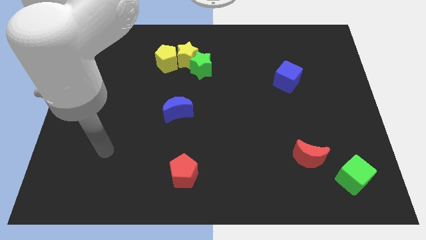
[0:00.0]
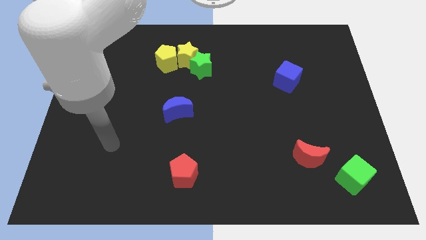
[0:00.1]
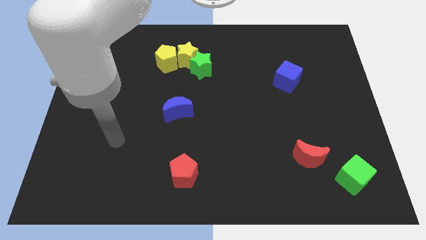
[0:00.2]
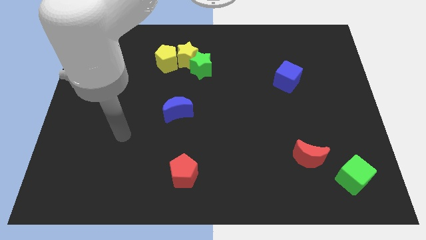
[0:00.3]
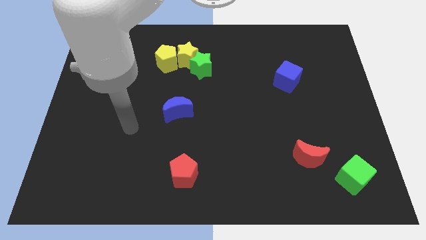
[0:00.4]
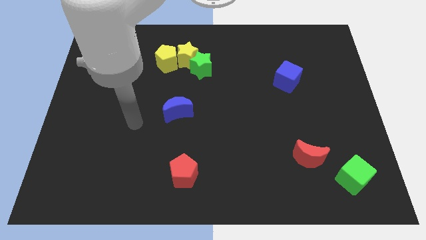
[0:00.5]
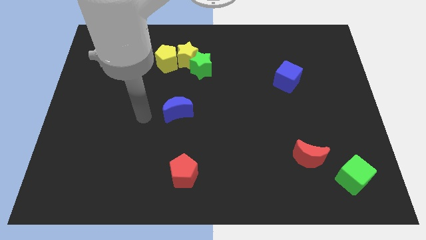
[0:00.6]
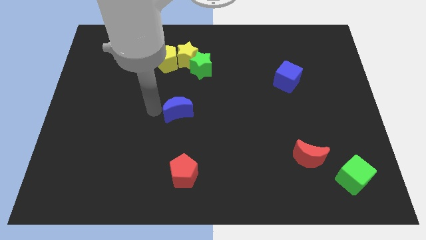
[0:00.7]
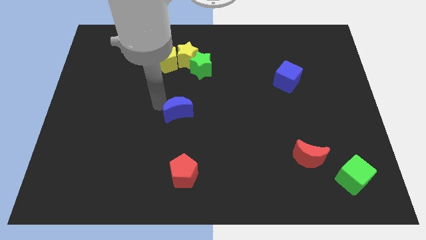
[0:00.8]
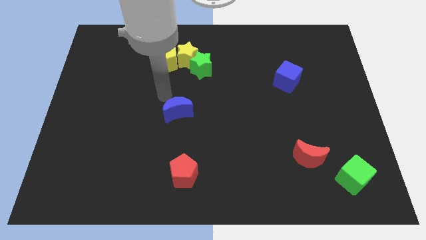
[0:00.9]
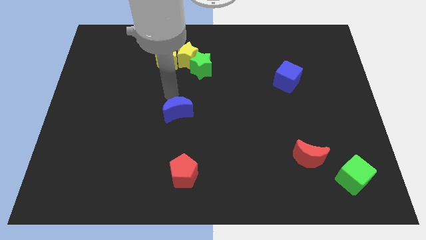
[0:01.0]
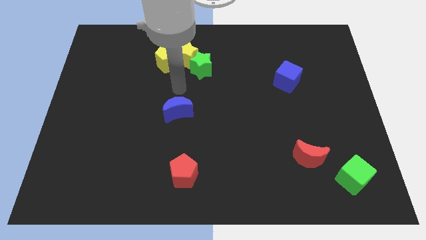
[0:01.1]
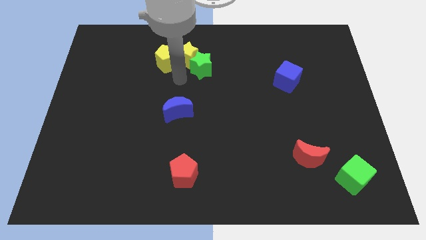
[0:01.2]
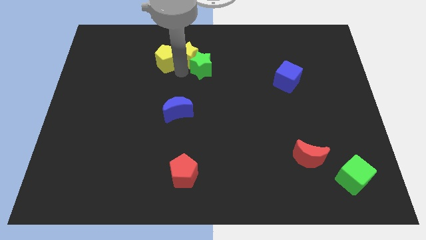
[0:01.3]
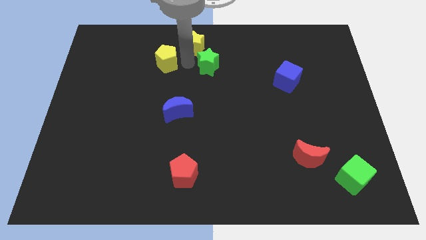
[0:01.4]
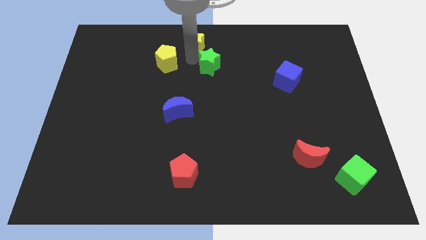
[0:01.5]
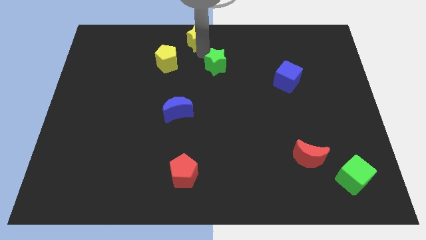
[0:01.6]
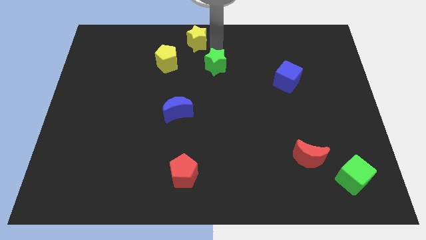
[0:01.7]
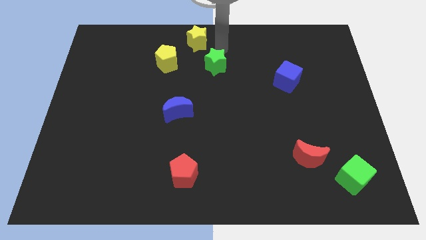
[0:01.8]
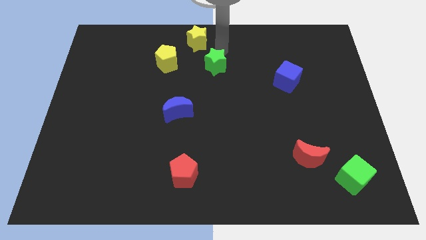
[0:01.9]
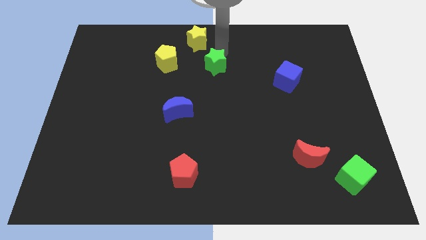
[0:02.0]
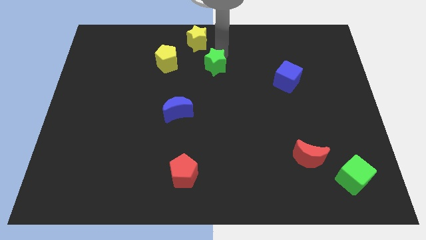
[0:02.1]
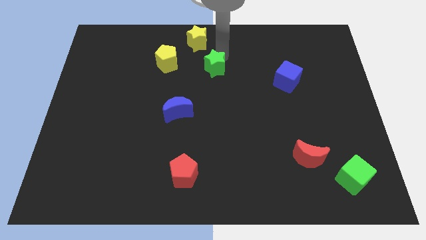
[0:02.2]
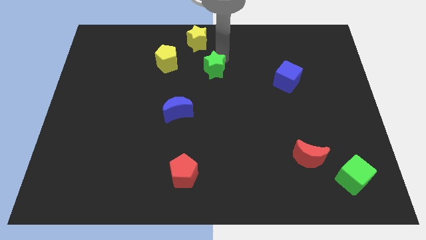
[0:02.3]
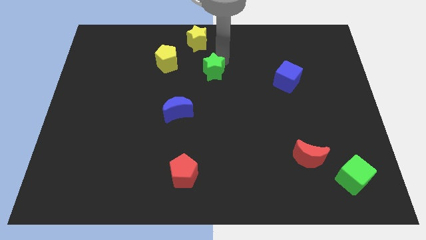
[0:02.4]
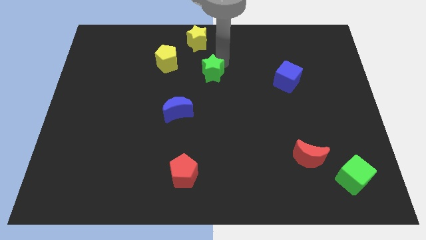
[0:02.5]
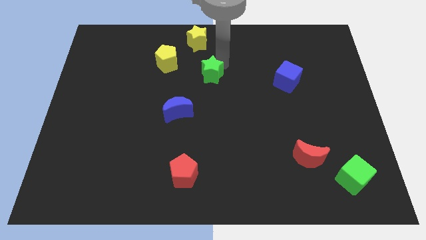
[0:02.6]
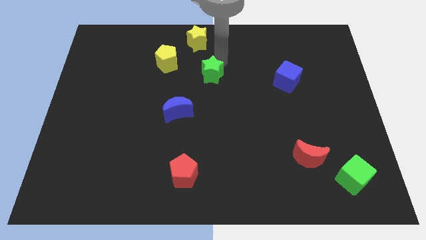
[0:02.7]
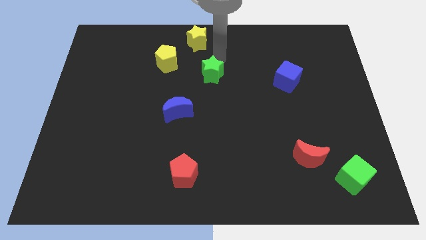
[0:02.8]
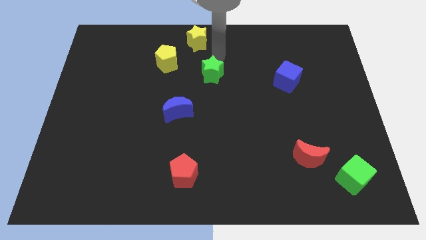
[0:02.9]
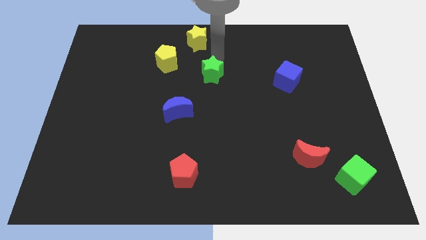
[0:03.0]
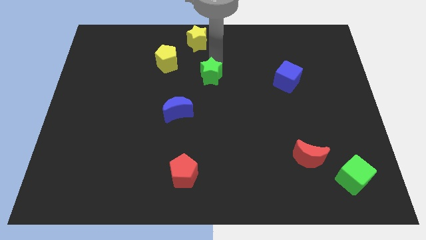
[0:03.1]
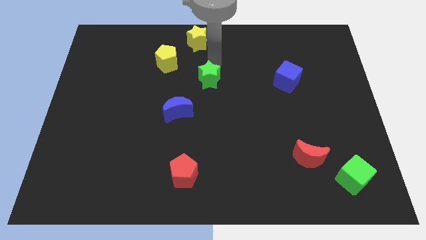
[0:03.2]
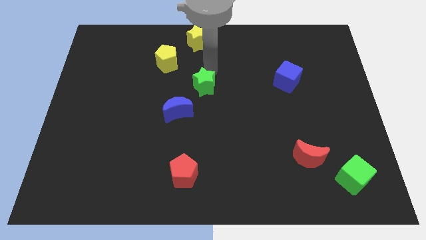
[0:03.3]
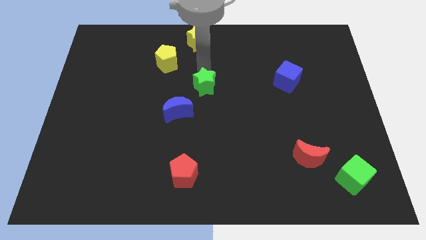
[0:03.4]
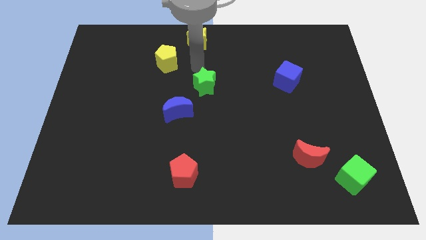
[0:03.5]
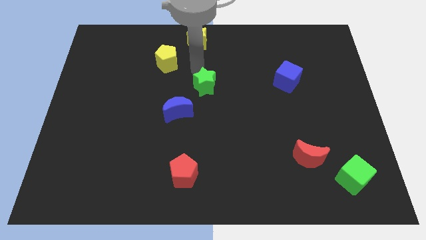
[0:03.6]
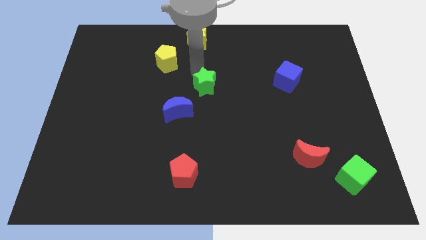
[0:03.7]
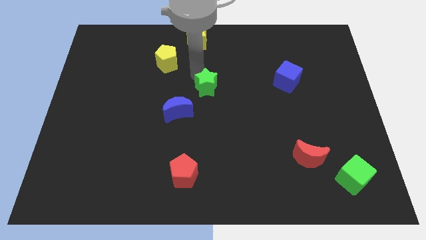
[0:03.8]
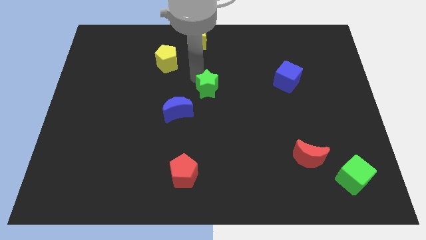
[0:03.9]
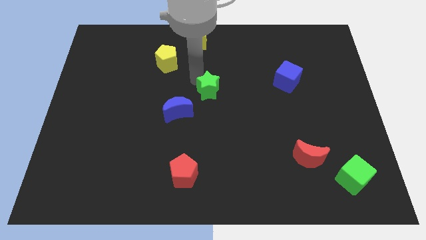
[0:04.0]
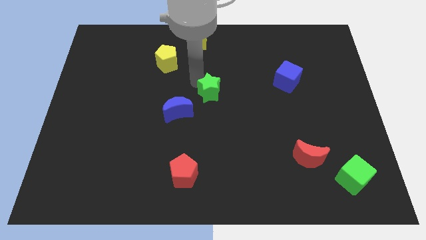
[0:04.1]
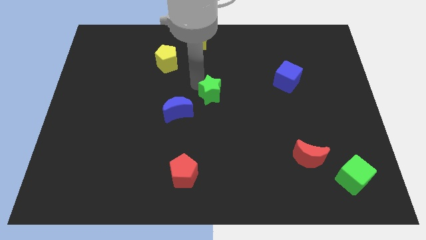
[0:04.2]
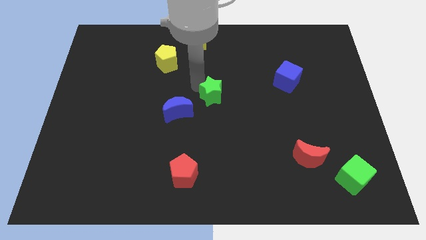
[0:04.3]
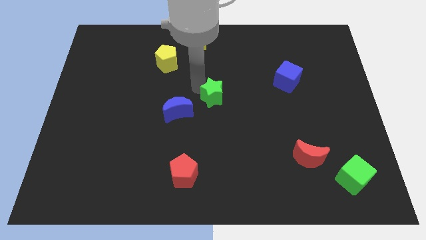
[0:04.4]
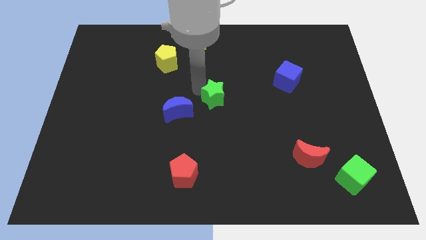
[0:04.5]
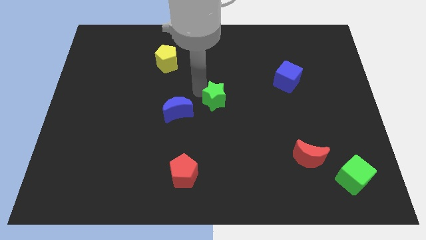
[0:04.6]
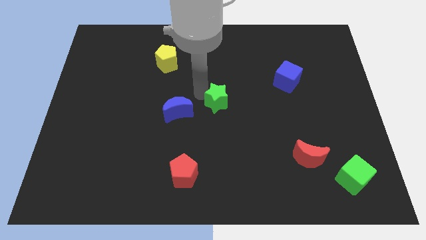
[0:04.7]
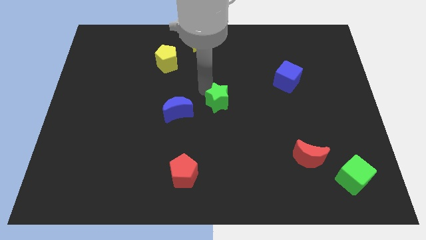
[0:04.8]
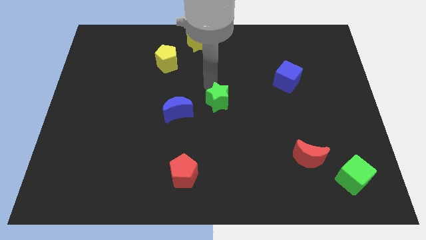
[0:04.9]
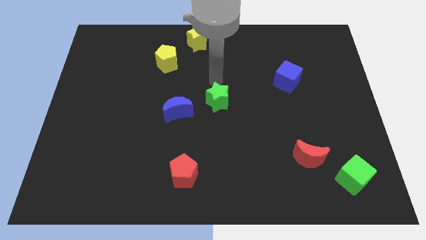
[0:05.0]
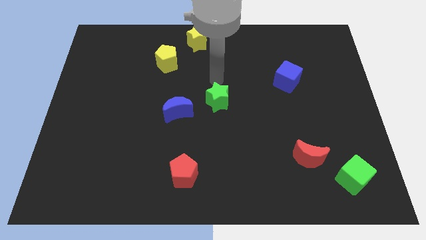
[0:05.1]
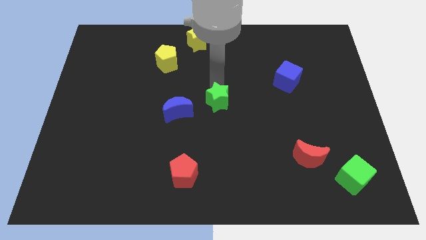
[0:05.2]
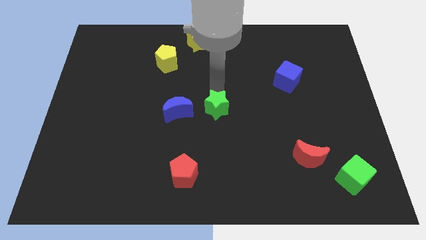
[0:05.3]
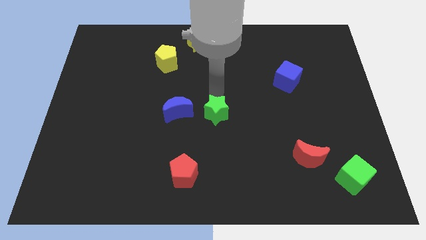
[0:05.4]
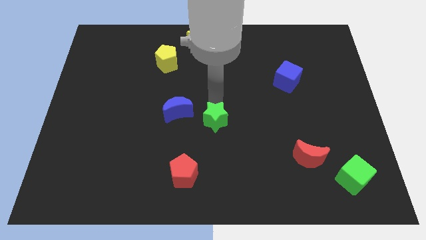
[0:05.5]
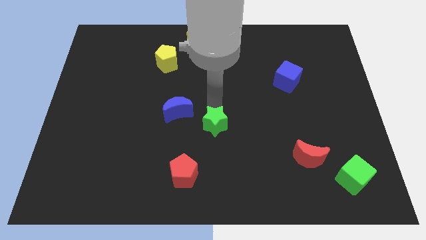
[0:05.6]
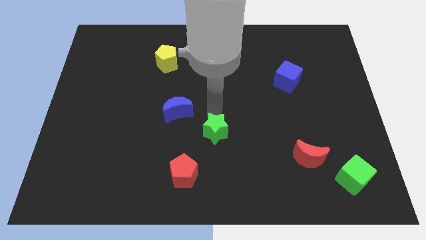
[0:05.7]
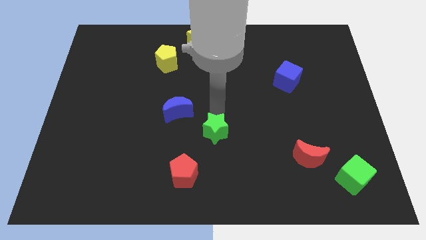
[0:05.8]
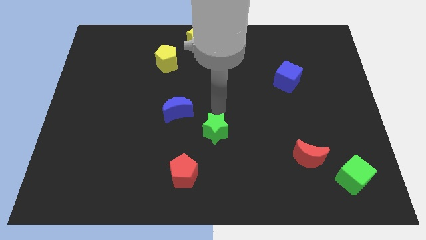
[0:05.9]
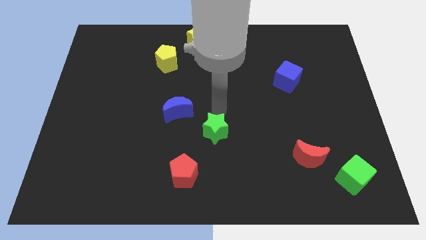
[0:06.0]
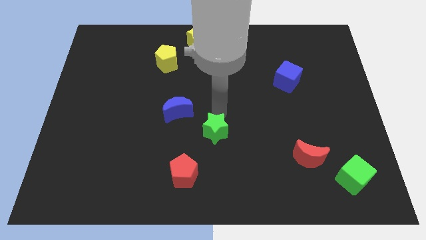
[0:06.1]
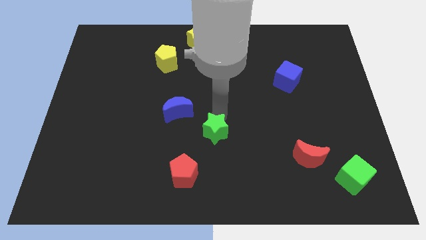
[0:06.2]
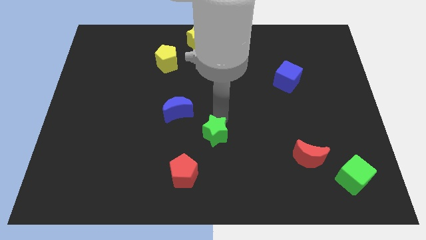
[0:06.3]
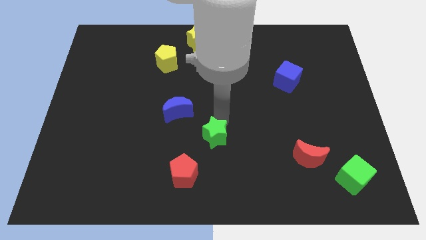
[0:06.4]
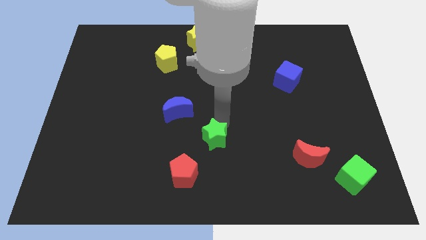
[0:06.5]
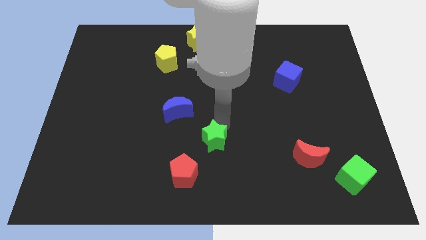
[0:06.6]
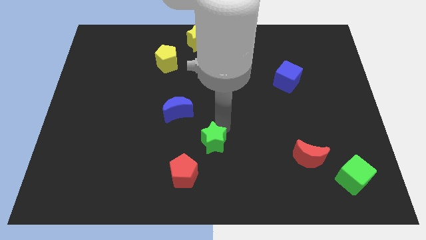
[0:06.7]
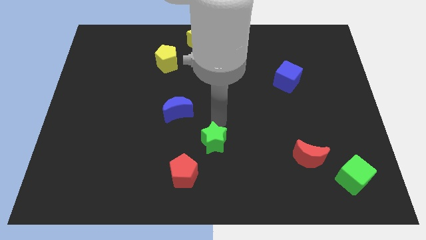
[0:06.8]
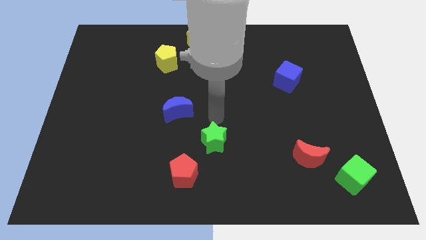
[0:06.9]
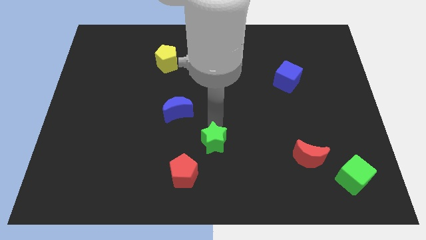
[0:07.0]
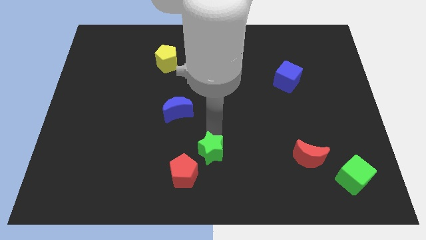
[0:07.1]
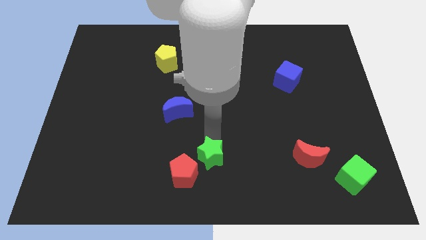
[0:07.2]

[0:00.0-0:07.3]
push the green star to the bottom
